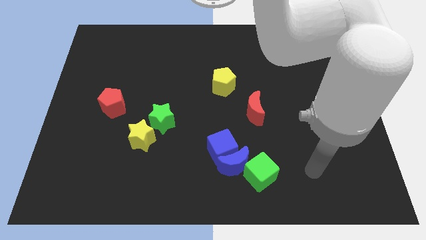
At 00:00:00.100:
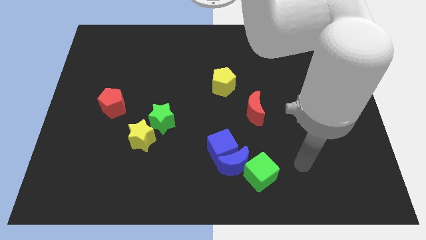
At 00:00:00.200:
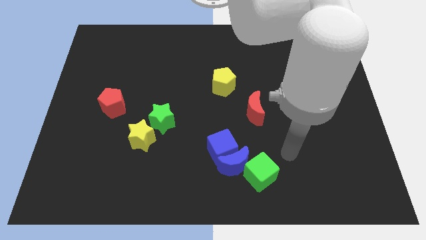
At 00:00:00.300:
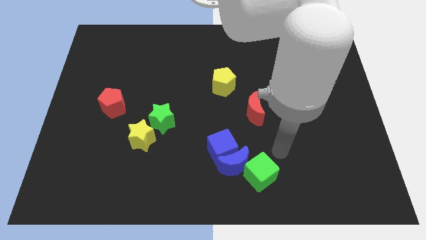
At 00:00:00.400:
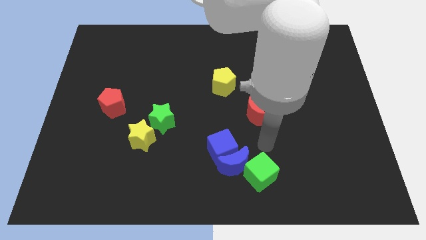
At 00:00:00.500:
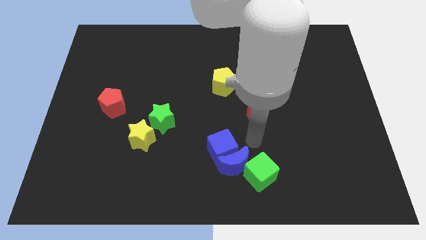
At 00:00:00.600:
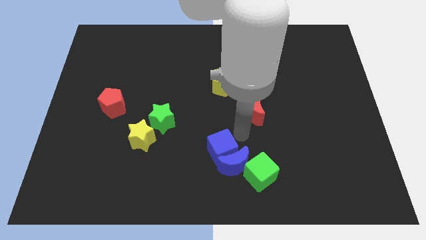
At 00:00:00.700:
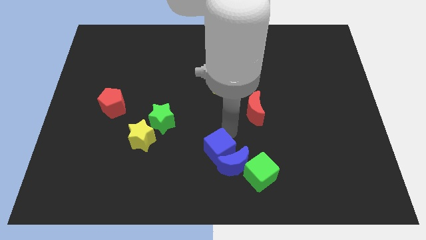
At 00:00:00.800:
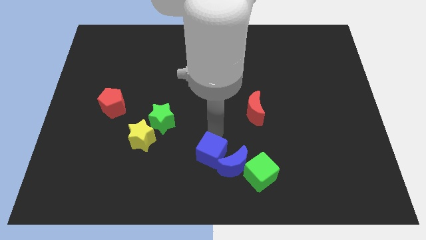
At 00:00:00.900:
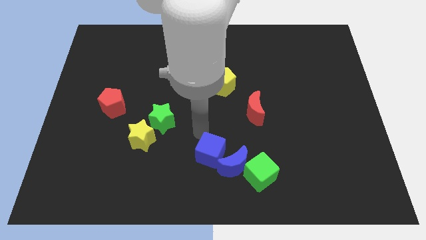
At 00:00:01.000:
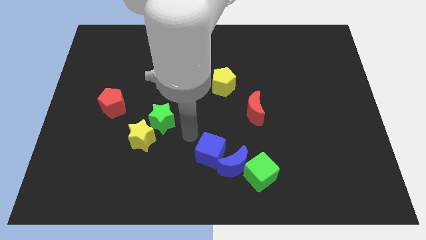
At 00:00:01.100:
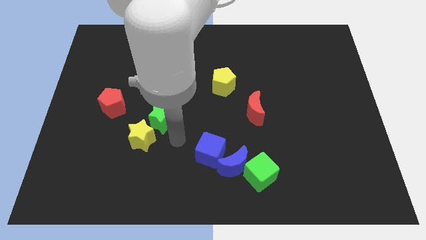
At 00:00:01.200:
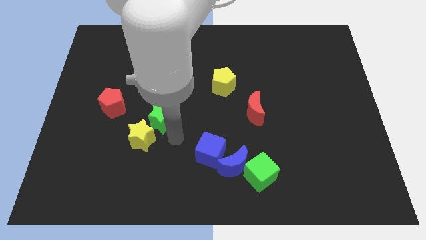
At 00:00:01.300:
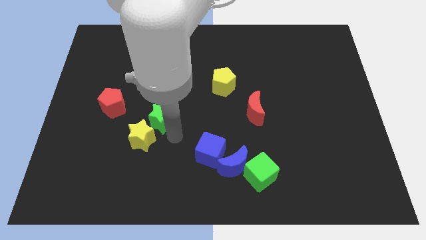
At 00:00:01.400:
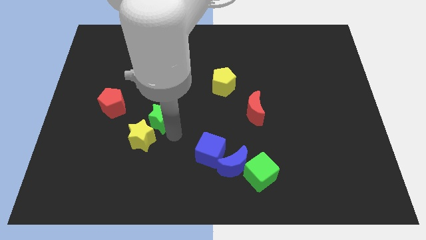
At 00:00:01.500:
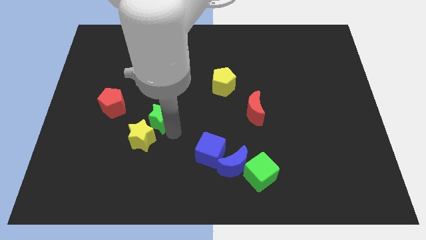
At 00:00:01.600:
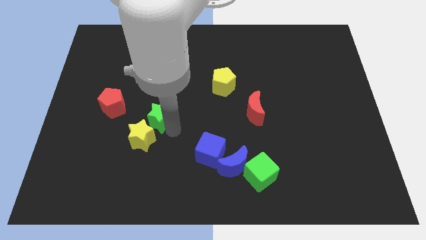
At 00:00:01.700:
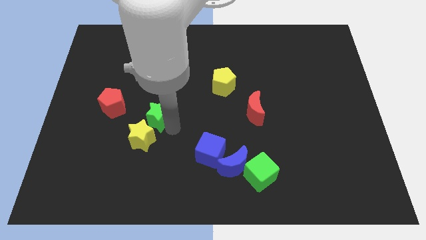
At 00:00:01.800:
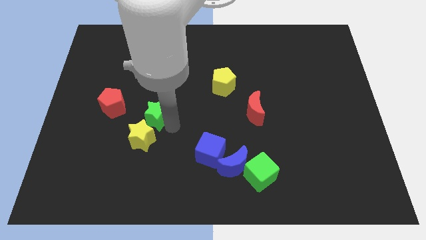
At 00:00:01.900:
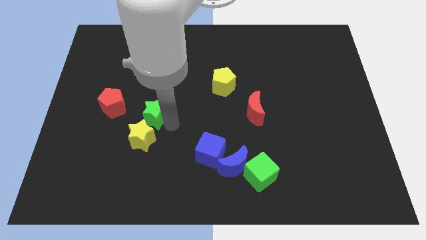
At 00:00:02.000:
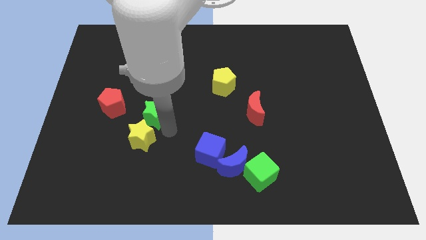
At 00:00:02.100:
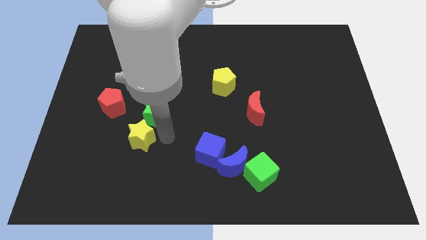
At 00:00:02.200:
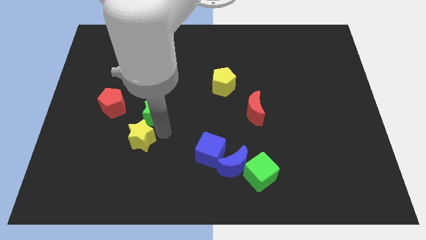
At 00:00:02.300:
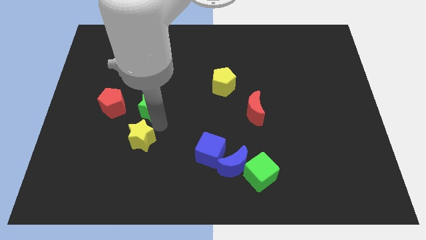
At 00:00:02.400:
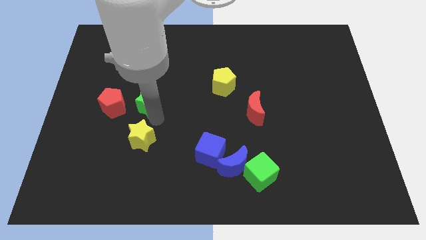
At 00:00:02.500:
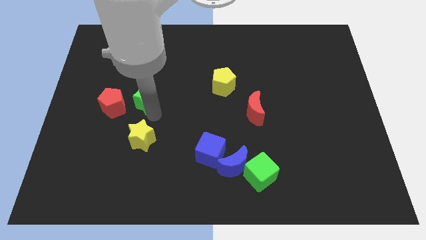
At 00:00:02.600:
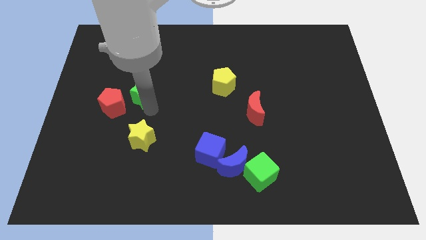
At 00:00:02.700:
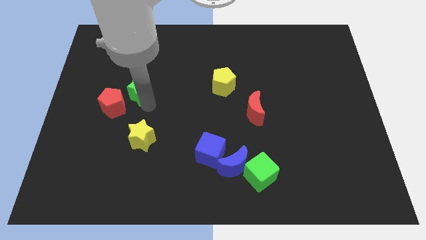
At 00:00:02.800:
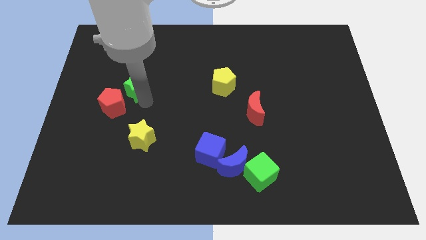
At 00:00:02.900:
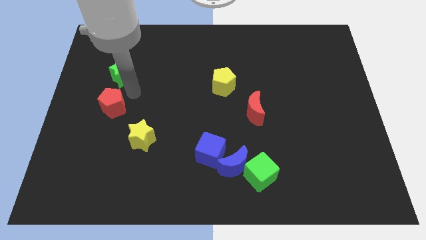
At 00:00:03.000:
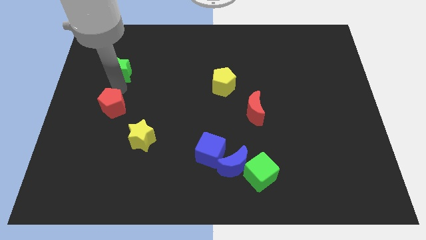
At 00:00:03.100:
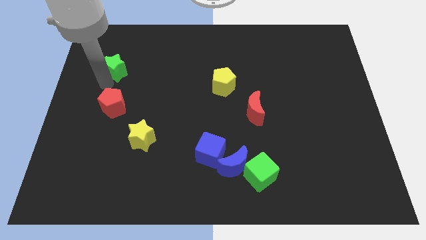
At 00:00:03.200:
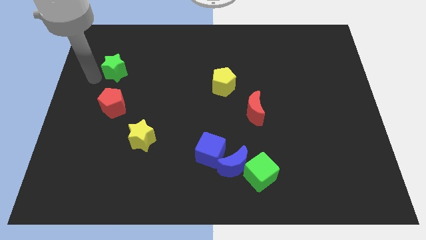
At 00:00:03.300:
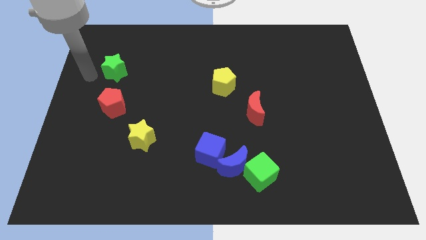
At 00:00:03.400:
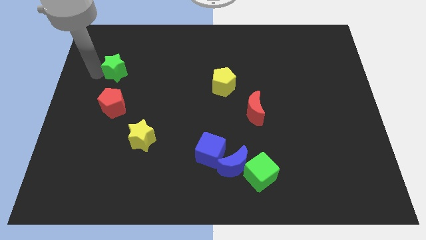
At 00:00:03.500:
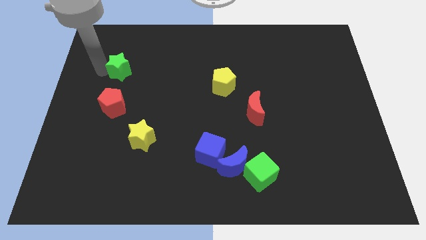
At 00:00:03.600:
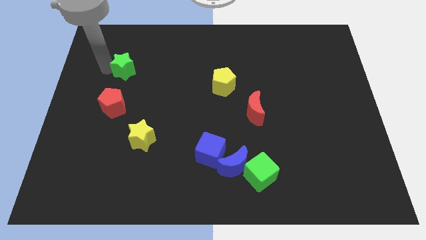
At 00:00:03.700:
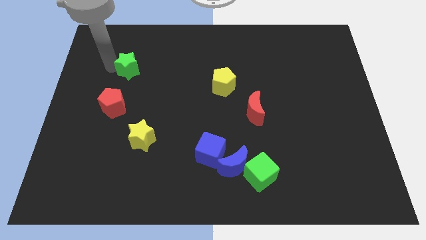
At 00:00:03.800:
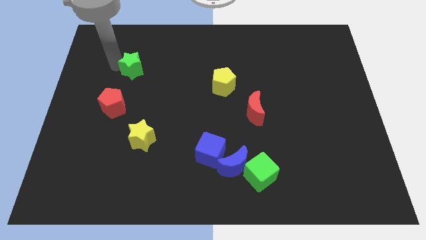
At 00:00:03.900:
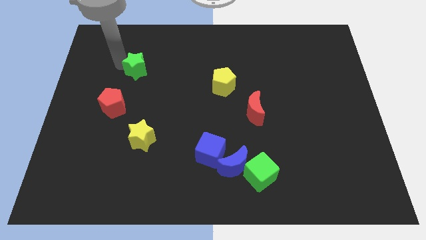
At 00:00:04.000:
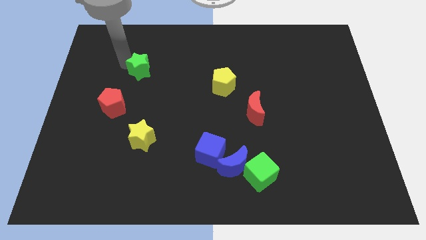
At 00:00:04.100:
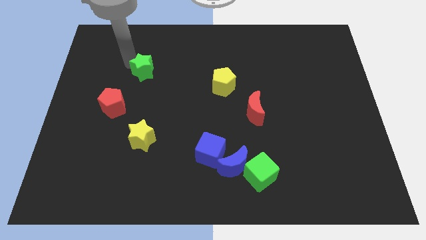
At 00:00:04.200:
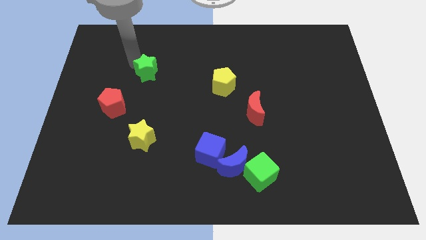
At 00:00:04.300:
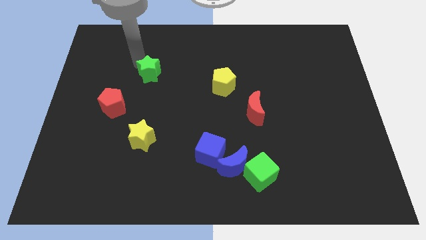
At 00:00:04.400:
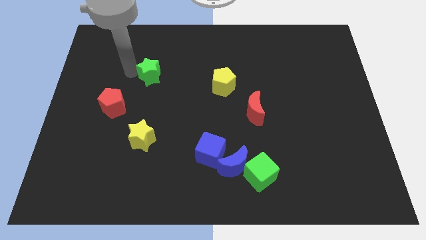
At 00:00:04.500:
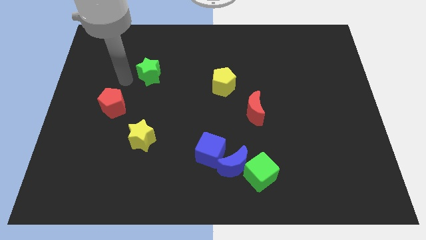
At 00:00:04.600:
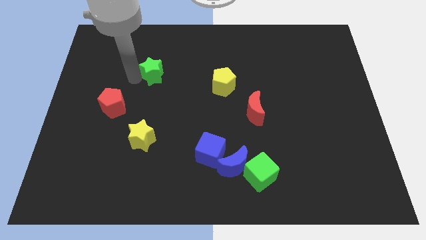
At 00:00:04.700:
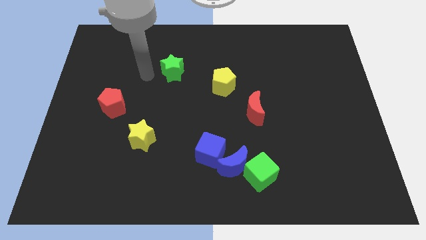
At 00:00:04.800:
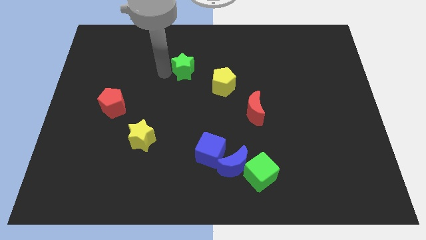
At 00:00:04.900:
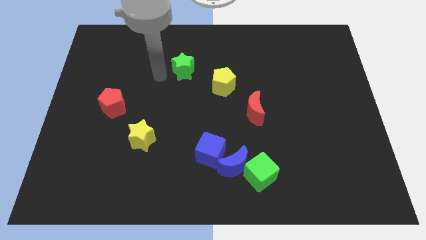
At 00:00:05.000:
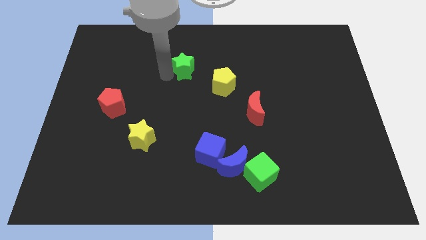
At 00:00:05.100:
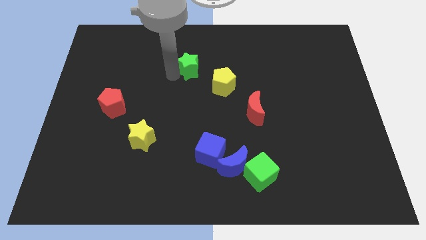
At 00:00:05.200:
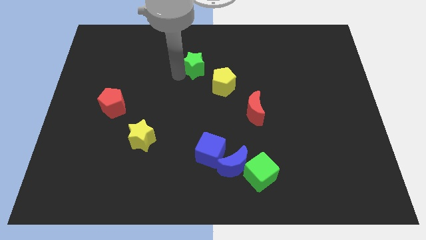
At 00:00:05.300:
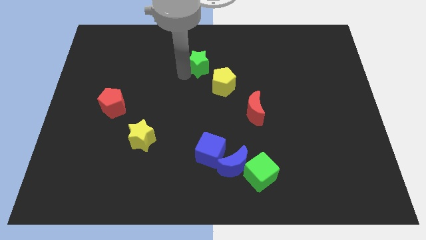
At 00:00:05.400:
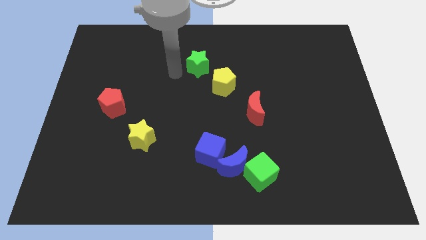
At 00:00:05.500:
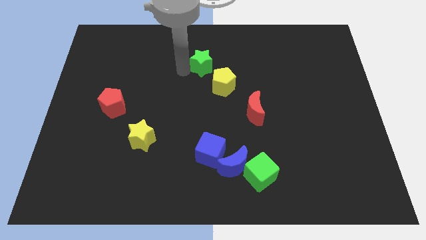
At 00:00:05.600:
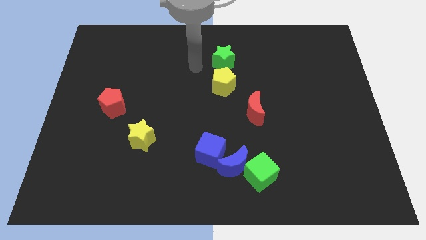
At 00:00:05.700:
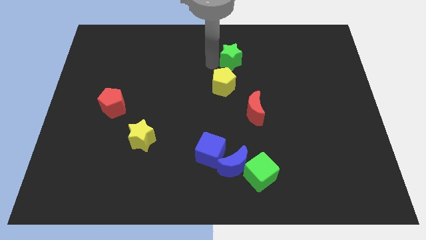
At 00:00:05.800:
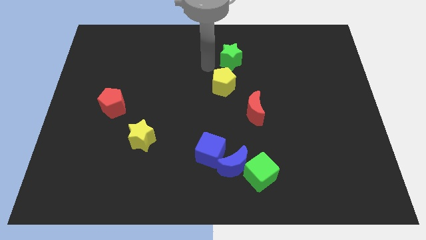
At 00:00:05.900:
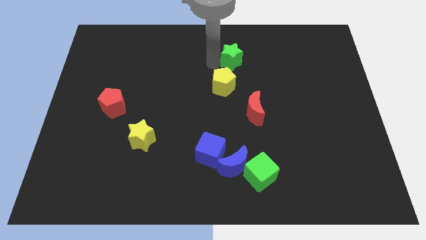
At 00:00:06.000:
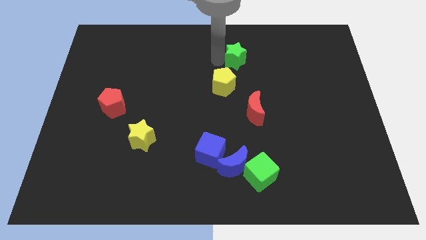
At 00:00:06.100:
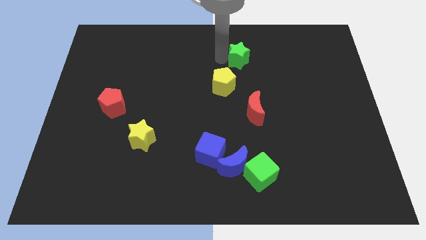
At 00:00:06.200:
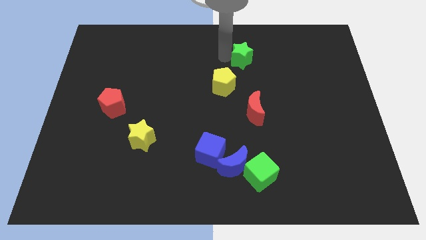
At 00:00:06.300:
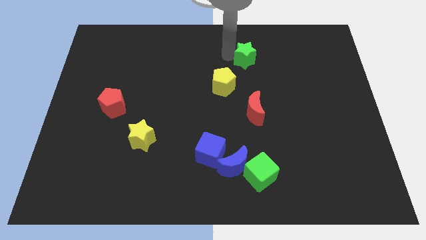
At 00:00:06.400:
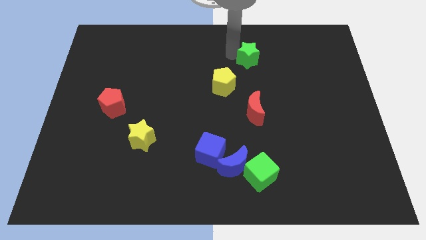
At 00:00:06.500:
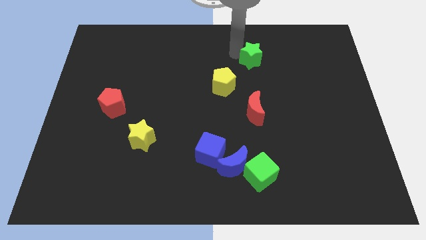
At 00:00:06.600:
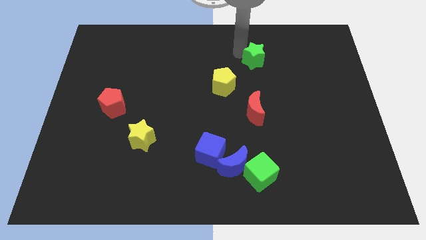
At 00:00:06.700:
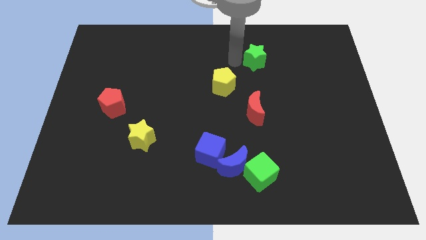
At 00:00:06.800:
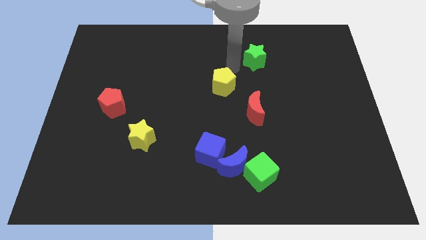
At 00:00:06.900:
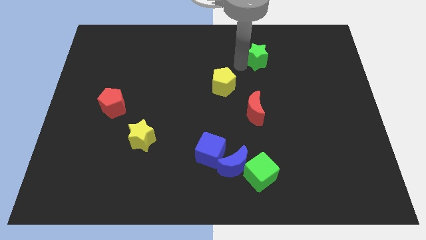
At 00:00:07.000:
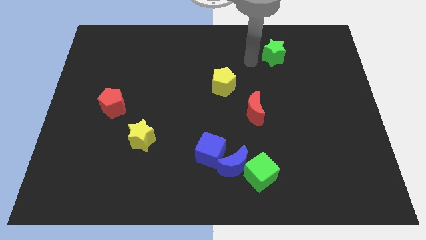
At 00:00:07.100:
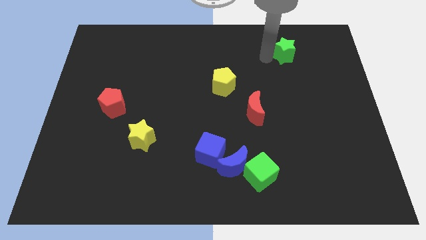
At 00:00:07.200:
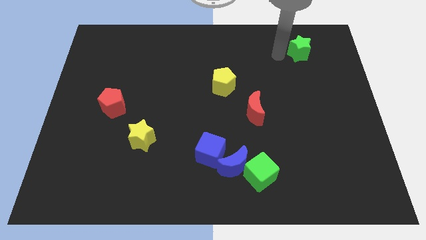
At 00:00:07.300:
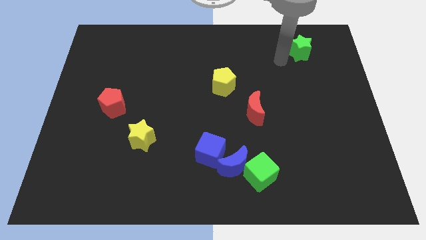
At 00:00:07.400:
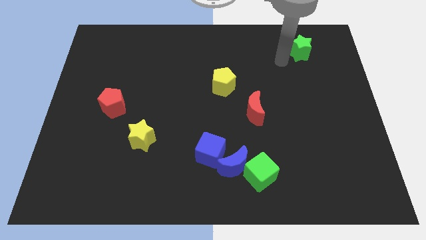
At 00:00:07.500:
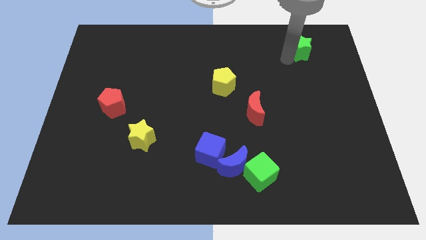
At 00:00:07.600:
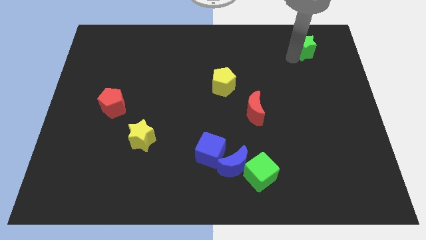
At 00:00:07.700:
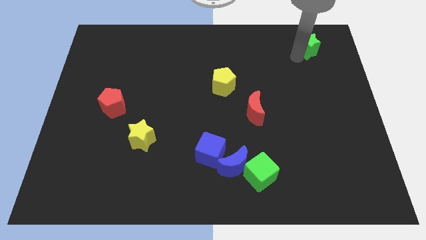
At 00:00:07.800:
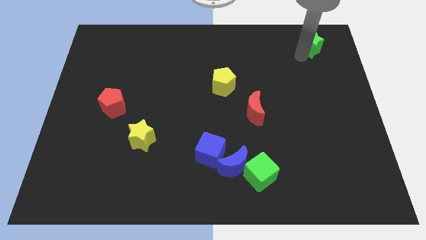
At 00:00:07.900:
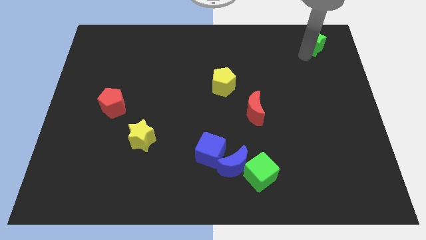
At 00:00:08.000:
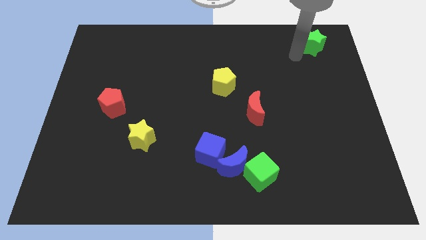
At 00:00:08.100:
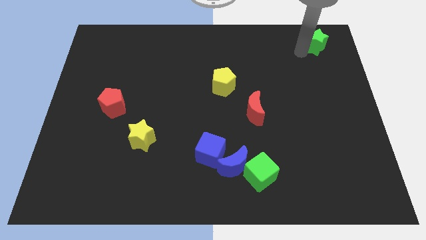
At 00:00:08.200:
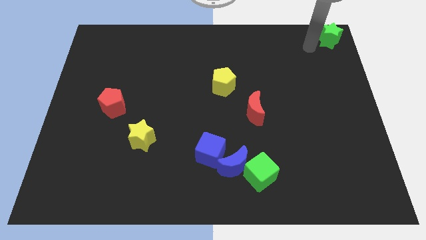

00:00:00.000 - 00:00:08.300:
slide the green star to the top right corner
